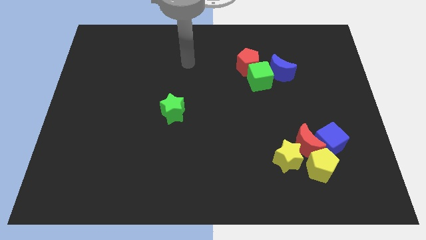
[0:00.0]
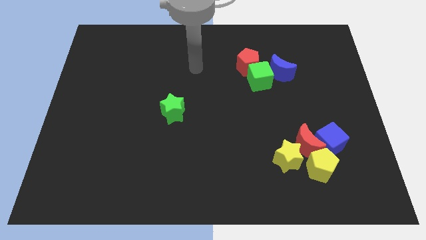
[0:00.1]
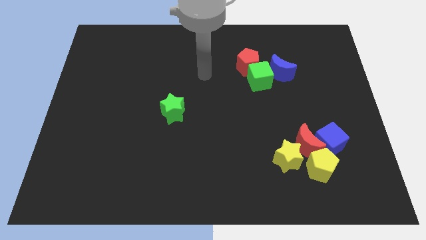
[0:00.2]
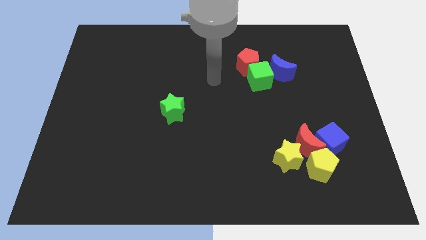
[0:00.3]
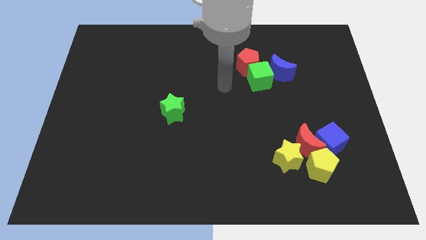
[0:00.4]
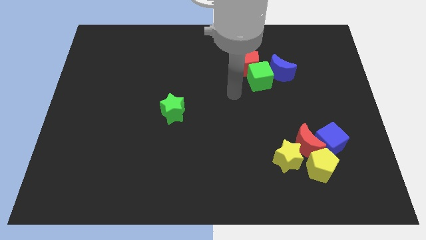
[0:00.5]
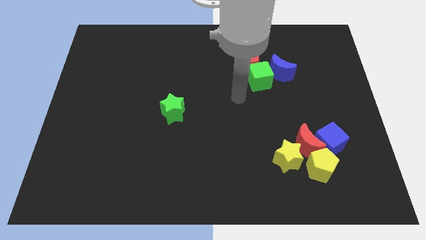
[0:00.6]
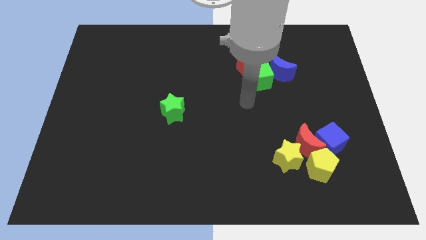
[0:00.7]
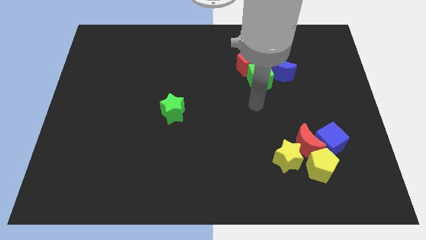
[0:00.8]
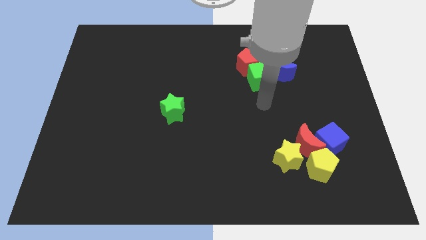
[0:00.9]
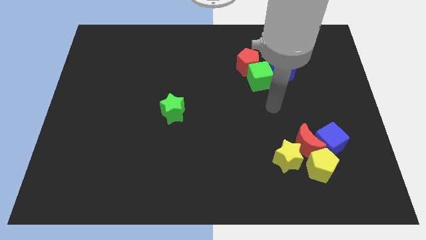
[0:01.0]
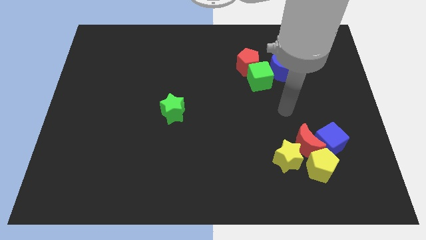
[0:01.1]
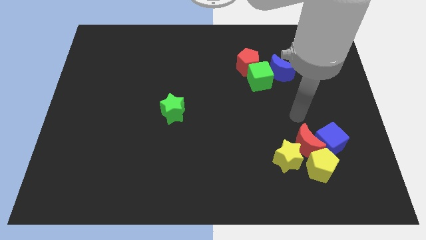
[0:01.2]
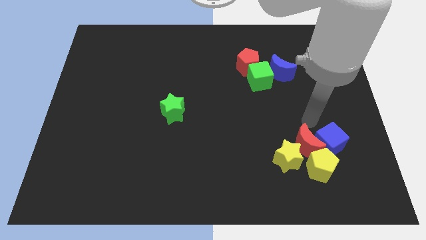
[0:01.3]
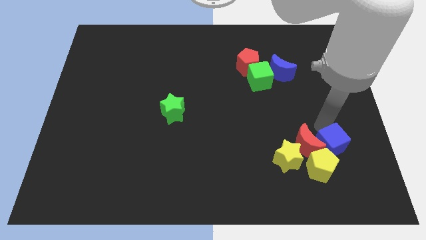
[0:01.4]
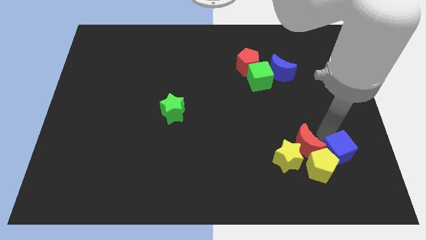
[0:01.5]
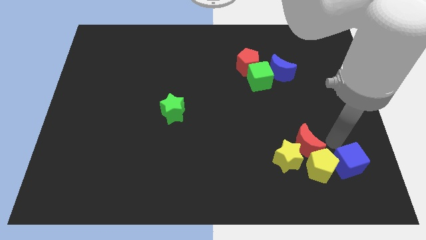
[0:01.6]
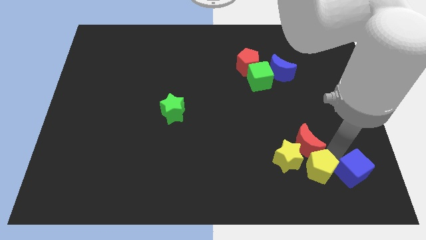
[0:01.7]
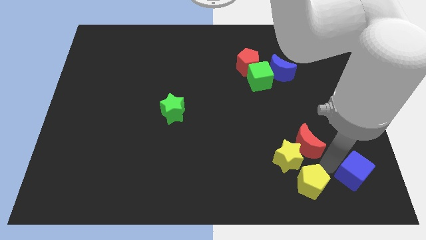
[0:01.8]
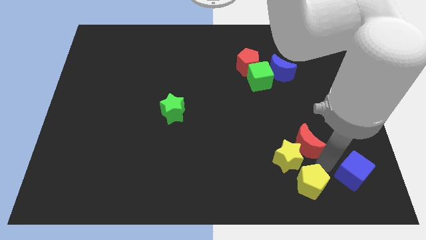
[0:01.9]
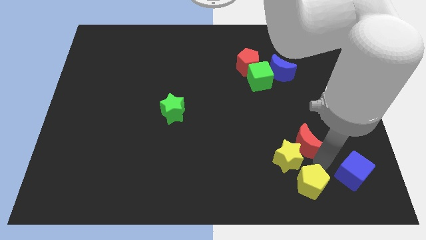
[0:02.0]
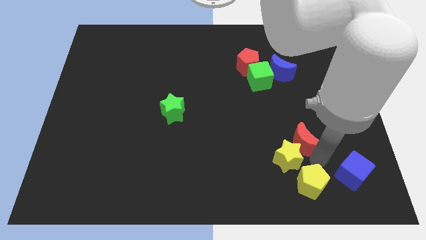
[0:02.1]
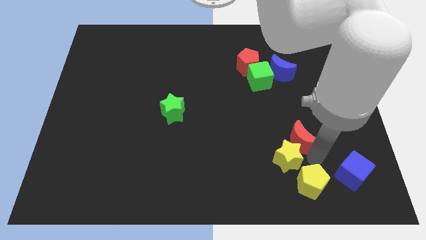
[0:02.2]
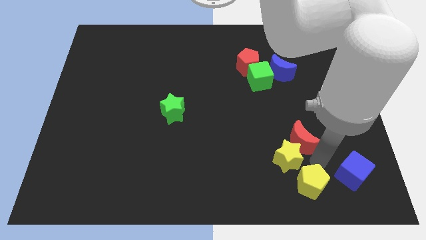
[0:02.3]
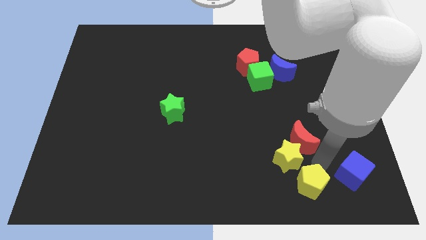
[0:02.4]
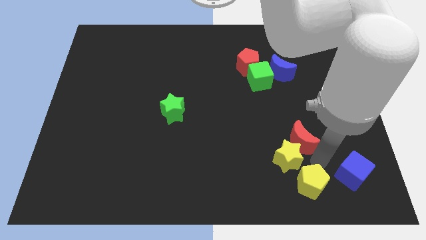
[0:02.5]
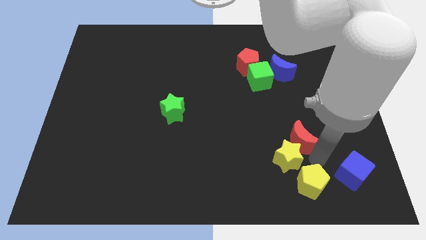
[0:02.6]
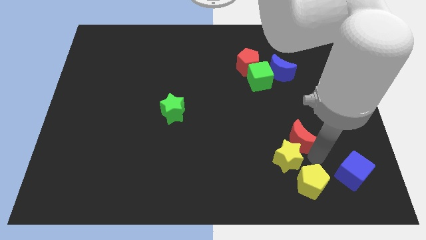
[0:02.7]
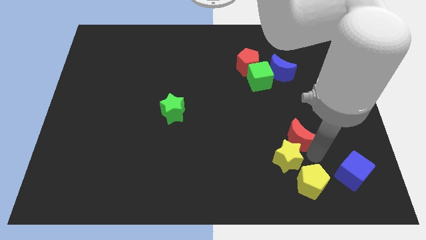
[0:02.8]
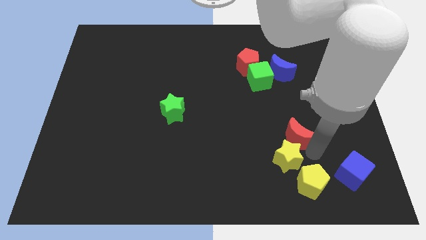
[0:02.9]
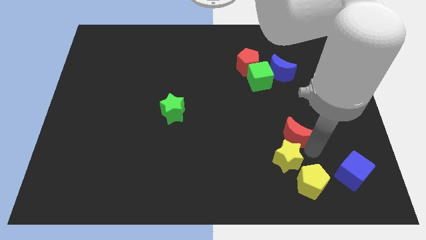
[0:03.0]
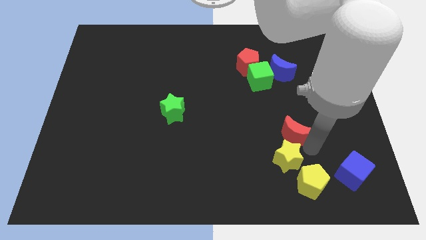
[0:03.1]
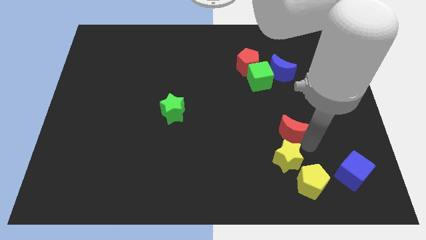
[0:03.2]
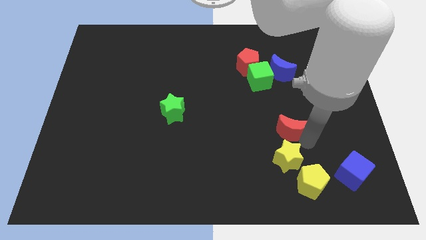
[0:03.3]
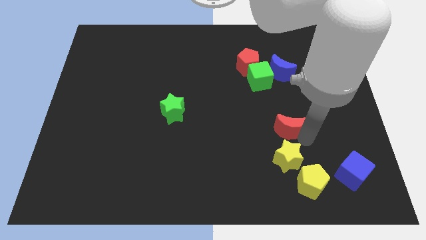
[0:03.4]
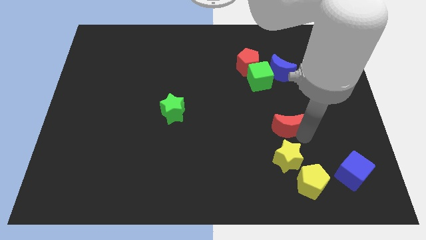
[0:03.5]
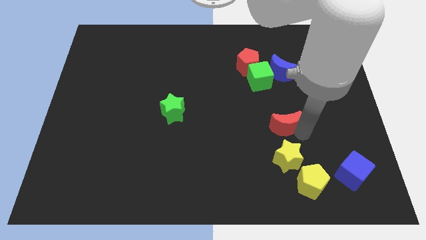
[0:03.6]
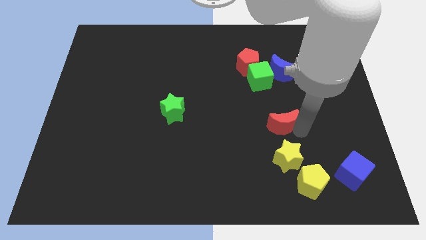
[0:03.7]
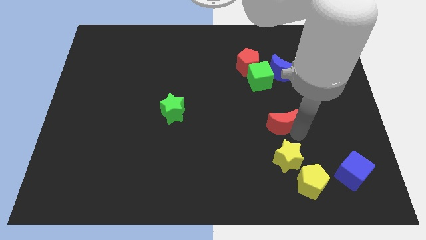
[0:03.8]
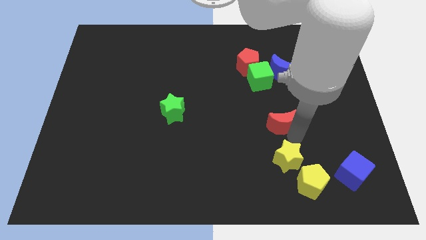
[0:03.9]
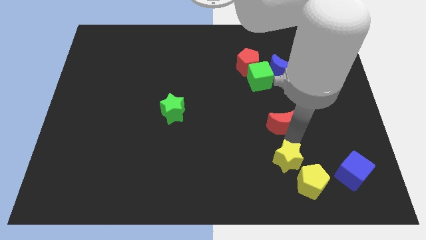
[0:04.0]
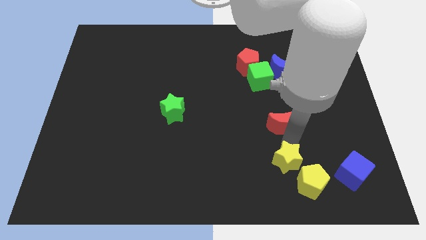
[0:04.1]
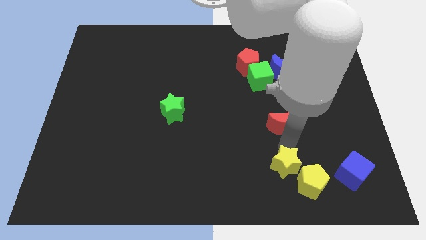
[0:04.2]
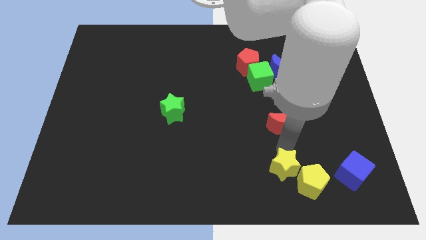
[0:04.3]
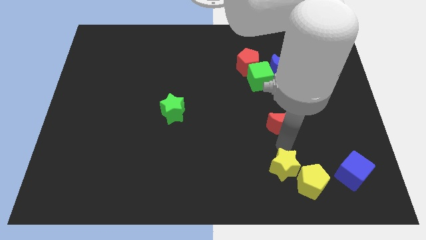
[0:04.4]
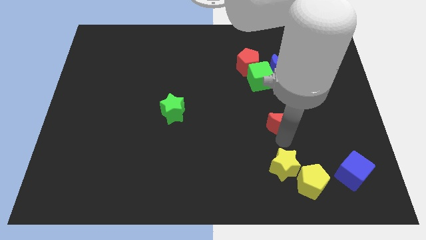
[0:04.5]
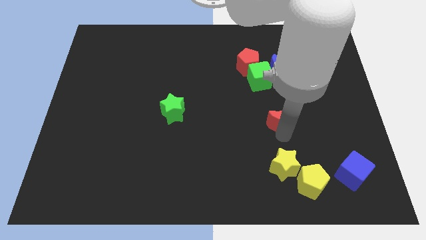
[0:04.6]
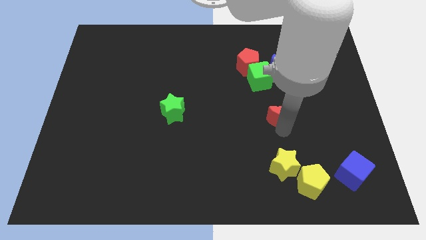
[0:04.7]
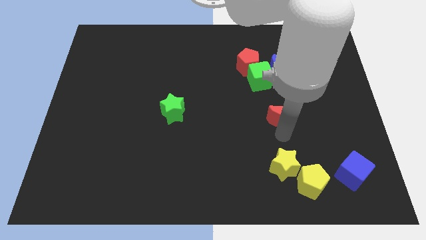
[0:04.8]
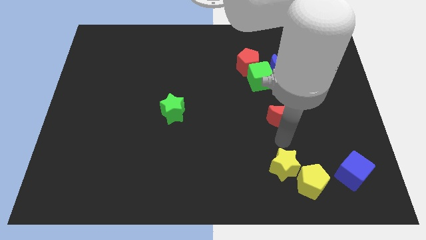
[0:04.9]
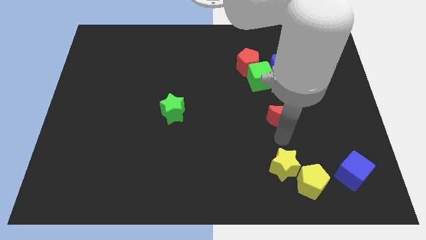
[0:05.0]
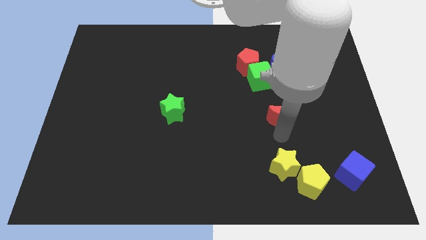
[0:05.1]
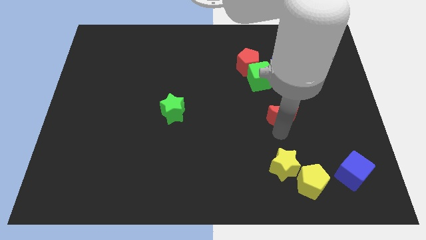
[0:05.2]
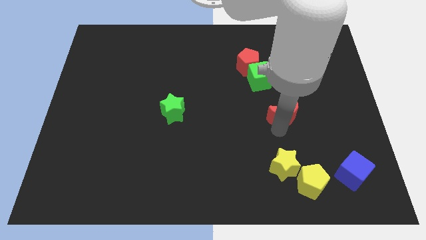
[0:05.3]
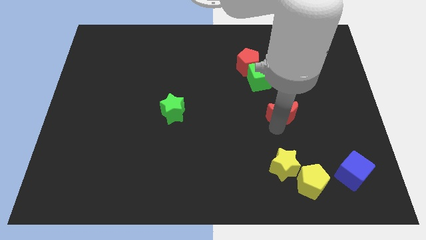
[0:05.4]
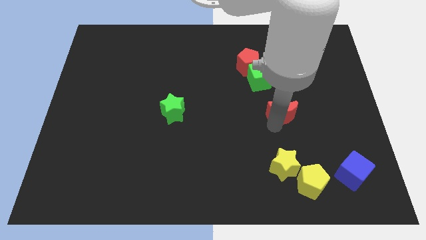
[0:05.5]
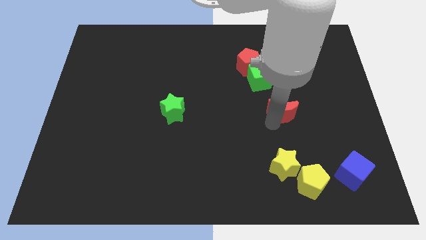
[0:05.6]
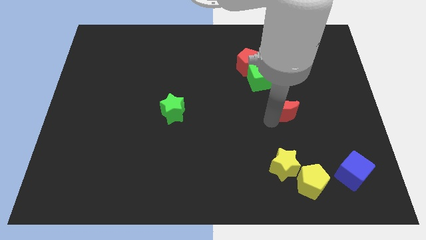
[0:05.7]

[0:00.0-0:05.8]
move the red moon to the bottom right of the green cube

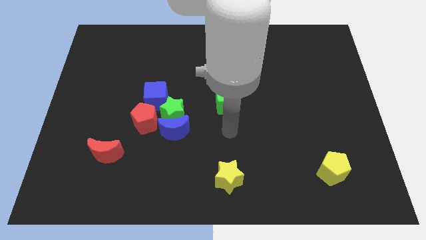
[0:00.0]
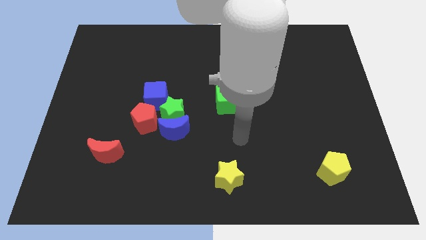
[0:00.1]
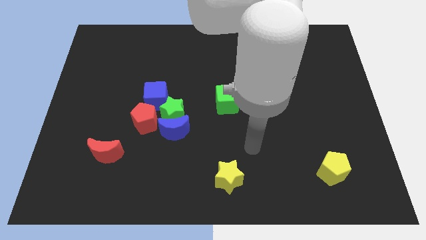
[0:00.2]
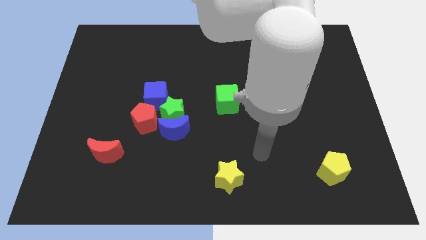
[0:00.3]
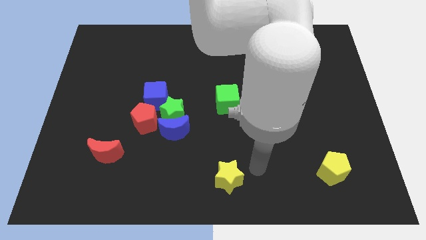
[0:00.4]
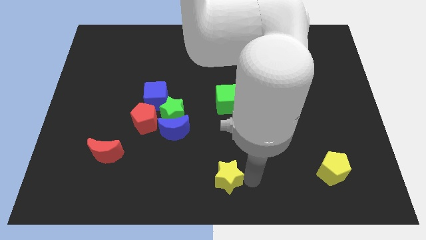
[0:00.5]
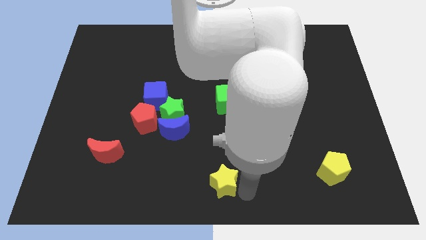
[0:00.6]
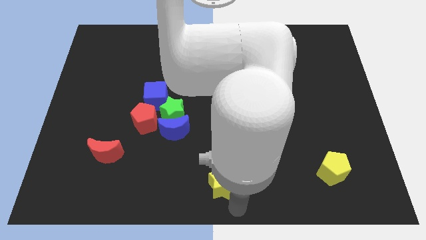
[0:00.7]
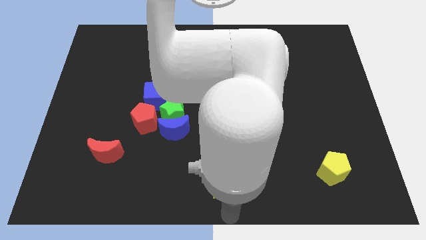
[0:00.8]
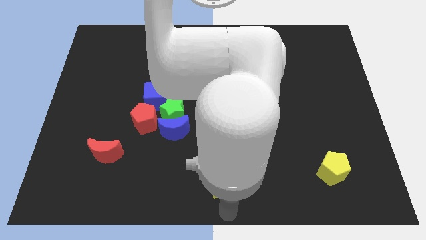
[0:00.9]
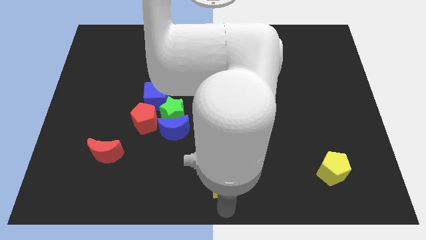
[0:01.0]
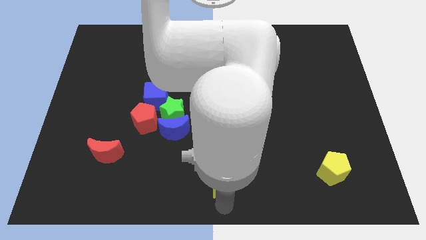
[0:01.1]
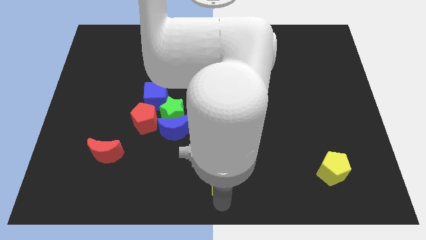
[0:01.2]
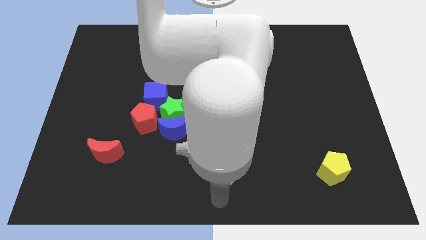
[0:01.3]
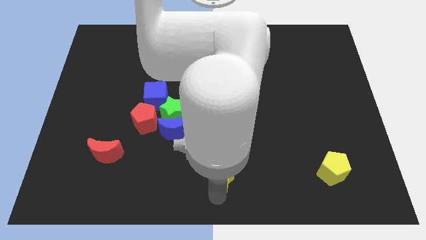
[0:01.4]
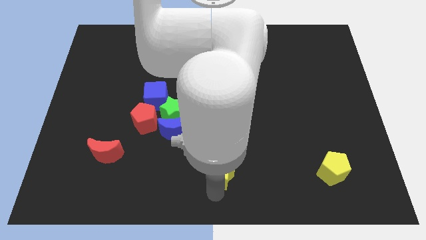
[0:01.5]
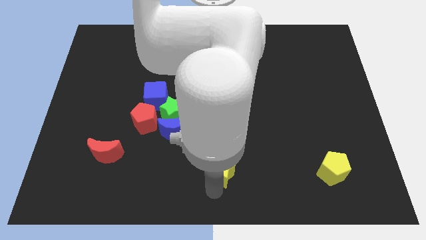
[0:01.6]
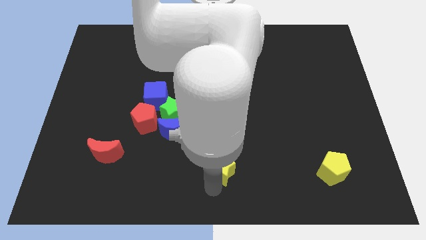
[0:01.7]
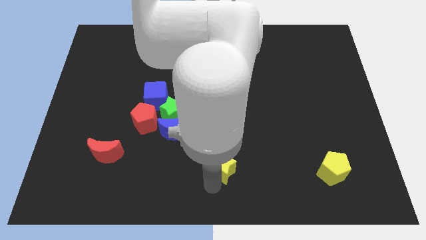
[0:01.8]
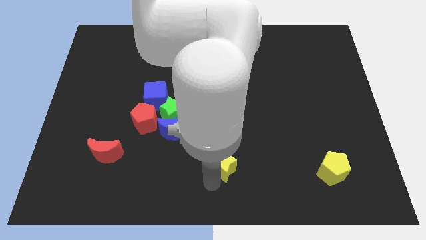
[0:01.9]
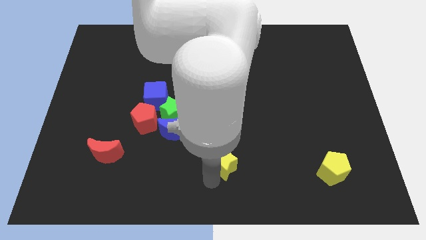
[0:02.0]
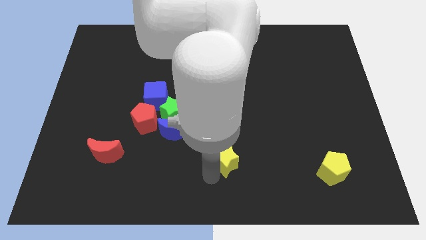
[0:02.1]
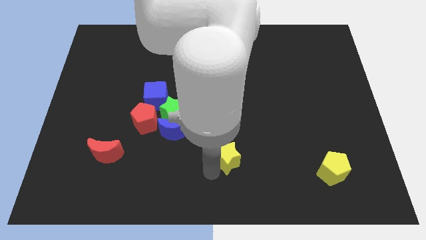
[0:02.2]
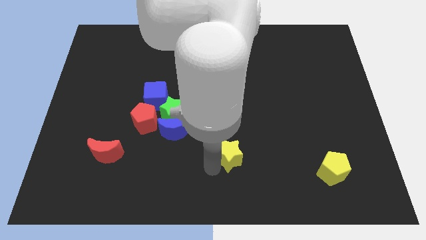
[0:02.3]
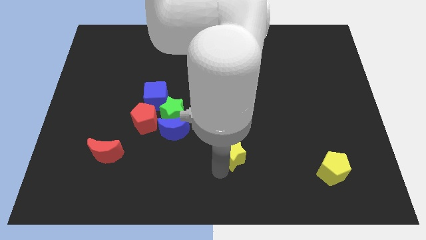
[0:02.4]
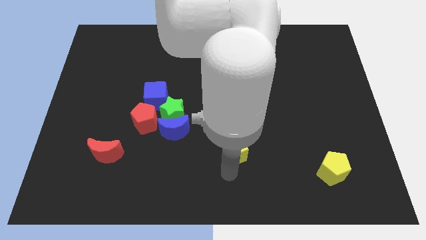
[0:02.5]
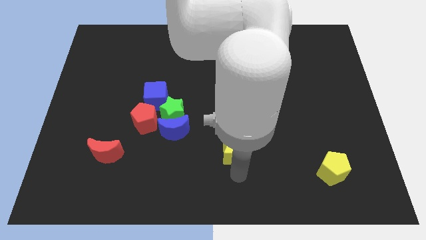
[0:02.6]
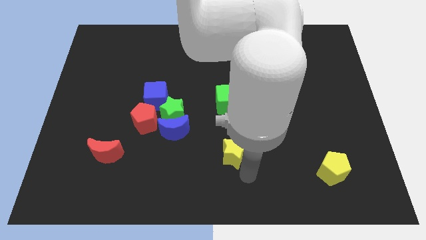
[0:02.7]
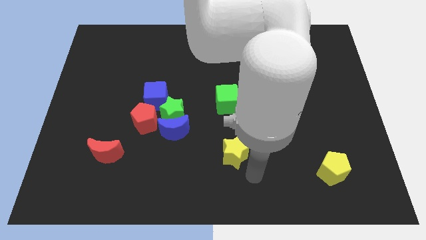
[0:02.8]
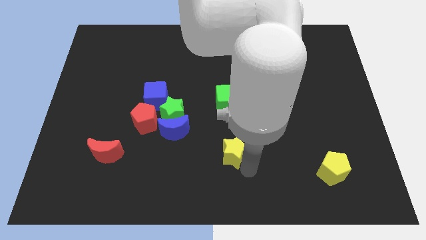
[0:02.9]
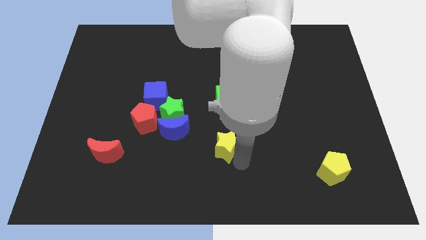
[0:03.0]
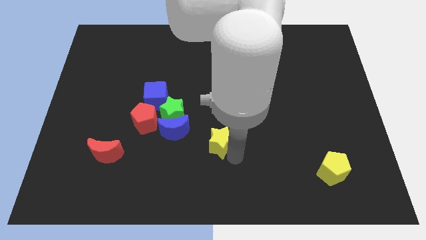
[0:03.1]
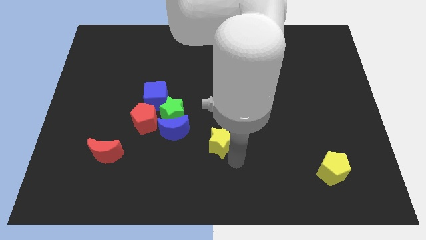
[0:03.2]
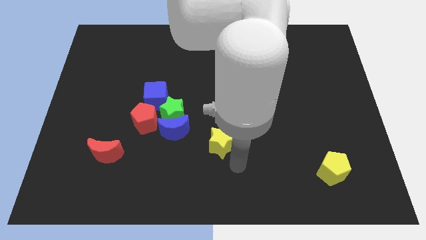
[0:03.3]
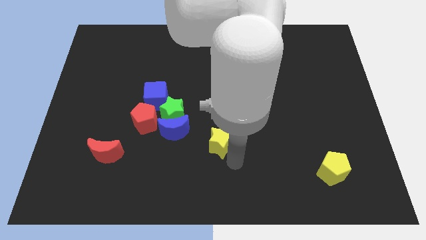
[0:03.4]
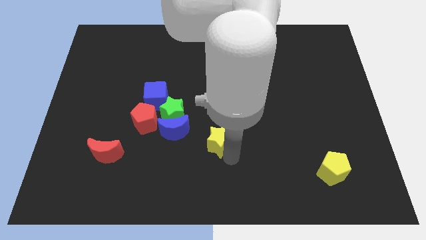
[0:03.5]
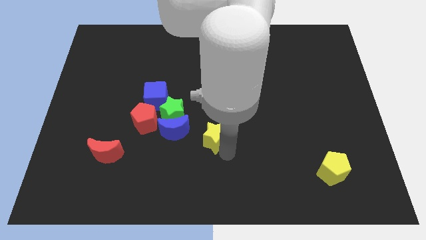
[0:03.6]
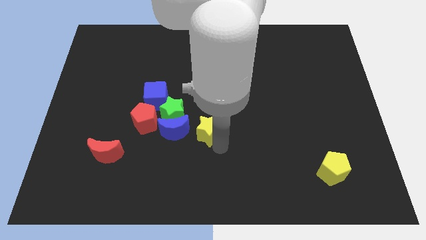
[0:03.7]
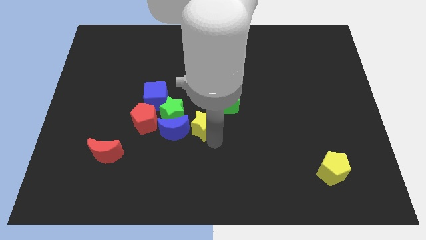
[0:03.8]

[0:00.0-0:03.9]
slide the yellow star to the top right side of the blue moon
